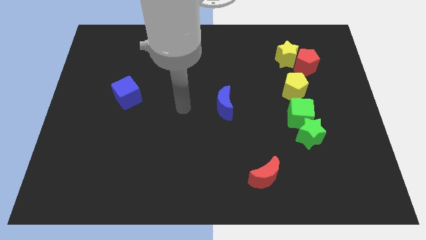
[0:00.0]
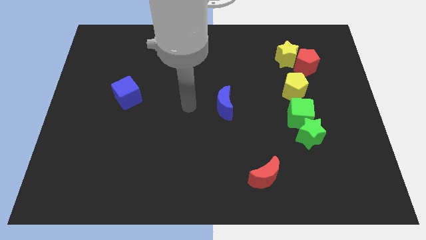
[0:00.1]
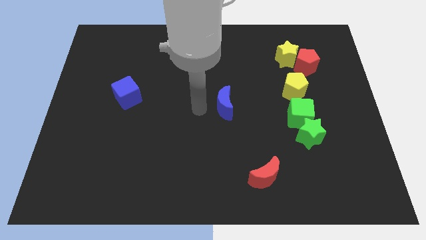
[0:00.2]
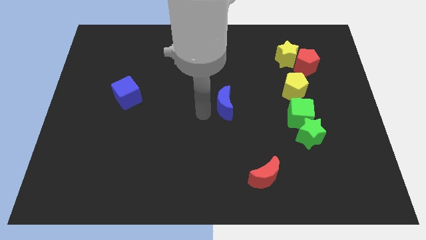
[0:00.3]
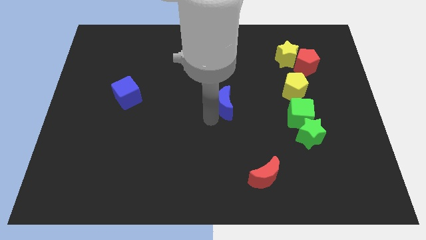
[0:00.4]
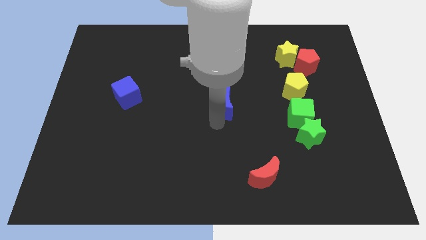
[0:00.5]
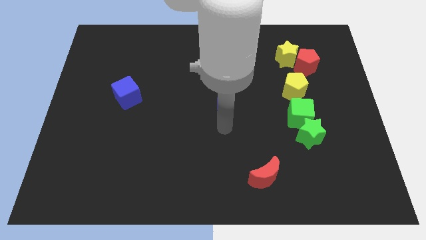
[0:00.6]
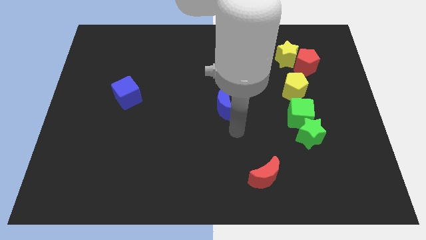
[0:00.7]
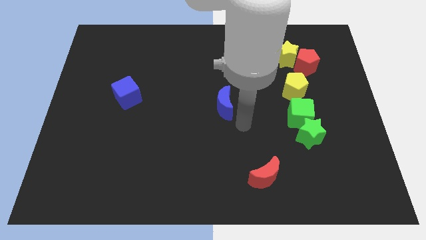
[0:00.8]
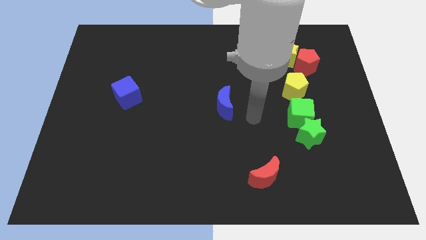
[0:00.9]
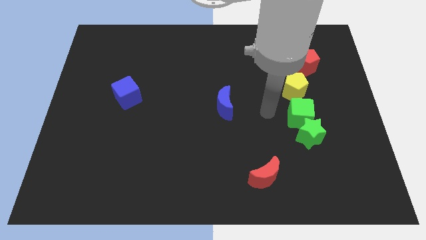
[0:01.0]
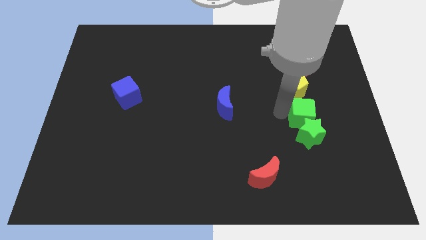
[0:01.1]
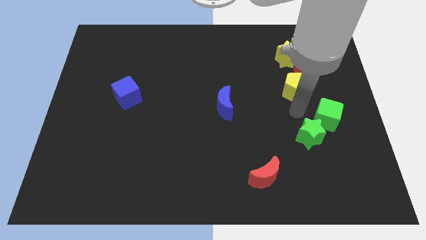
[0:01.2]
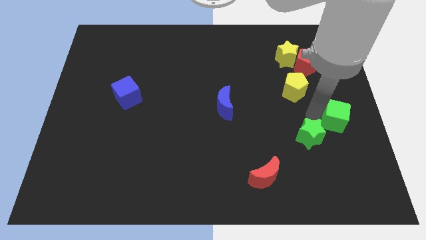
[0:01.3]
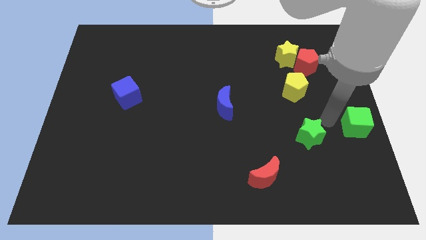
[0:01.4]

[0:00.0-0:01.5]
move the green star away from the green cube

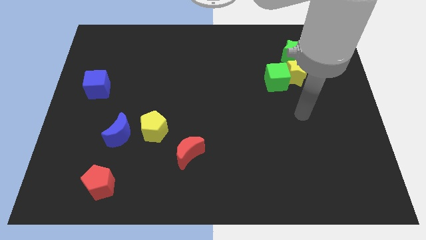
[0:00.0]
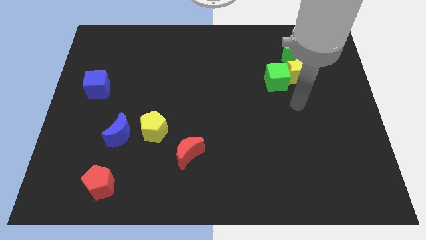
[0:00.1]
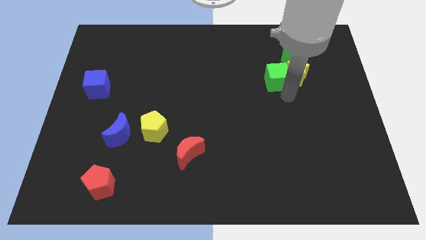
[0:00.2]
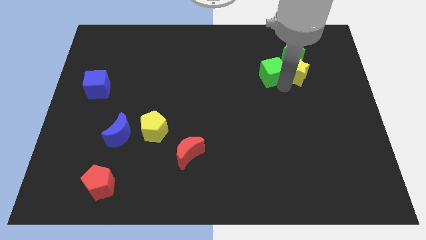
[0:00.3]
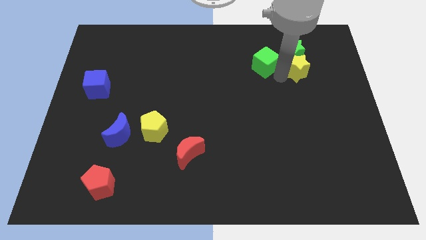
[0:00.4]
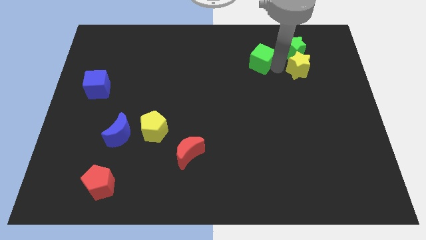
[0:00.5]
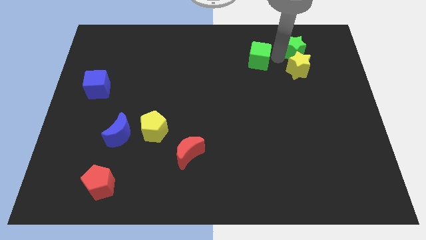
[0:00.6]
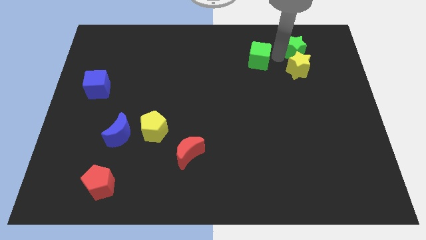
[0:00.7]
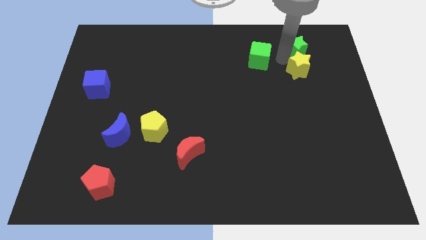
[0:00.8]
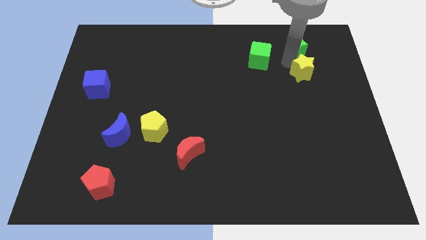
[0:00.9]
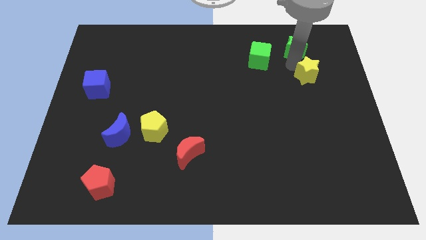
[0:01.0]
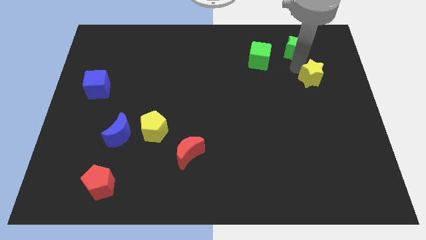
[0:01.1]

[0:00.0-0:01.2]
separate the yellow star from the green cube and green star

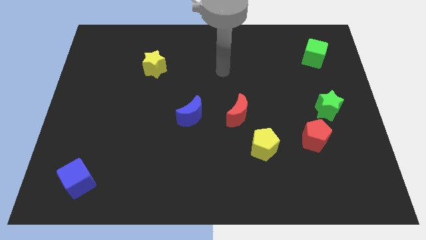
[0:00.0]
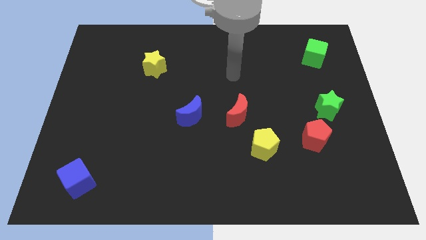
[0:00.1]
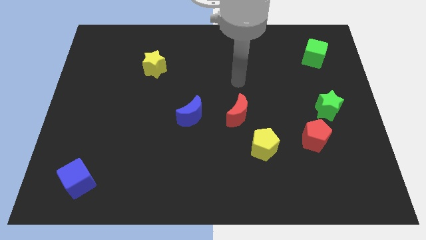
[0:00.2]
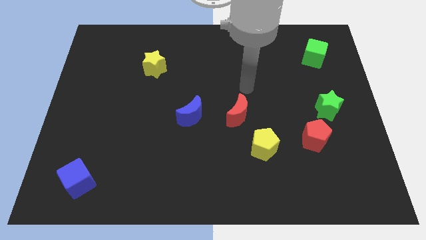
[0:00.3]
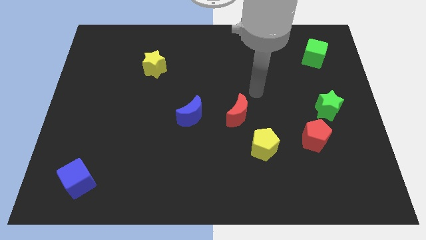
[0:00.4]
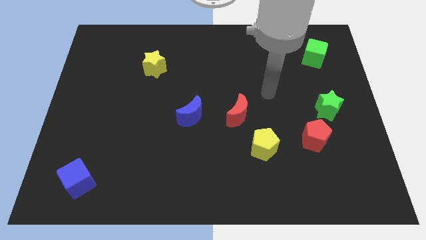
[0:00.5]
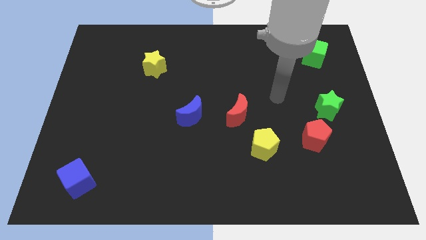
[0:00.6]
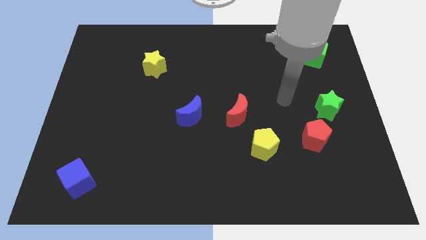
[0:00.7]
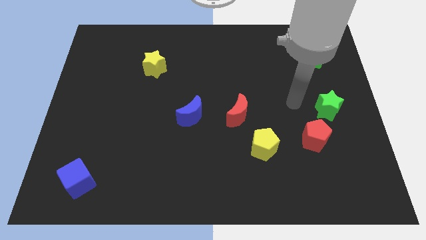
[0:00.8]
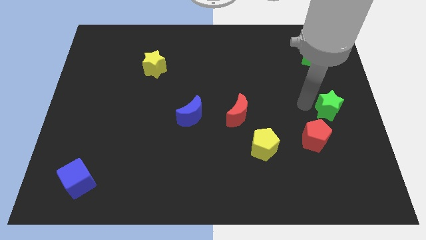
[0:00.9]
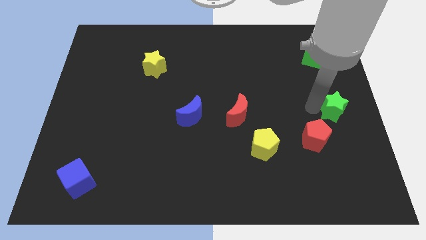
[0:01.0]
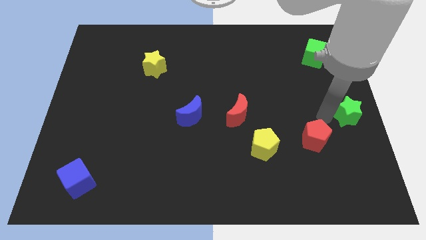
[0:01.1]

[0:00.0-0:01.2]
move the red pentagon away from the green star

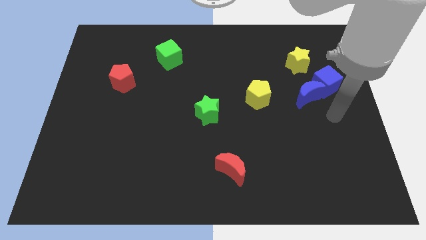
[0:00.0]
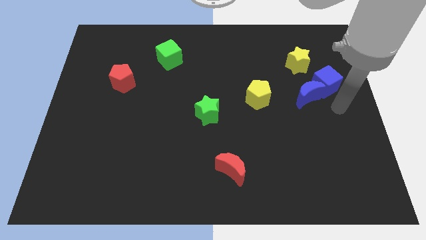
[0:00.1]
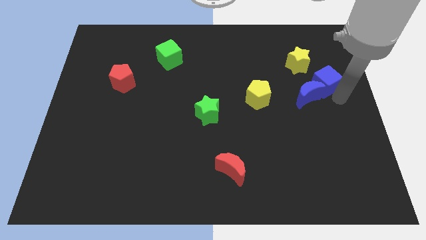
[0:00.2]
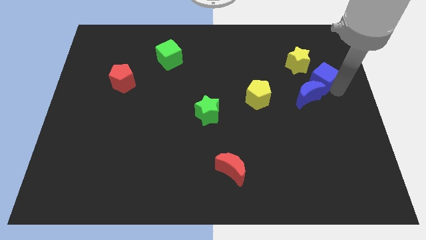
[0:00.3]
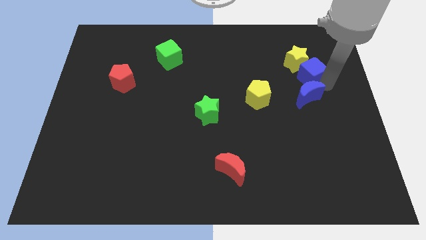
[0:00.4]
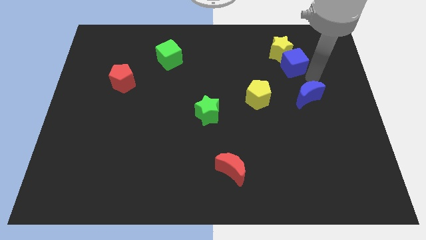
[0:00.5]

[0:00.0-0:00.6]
pull the blue moon apart from the blue cube

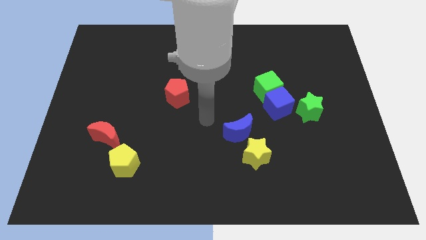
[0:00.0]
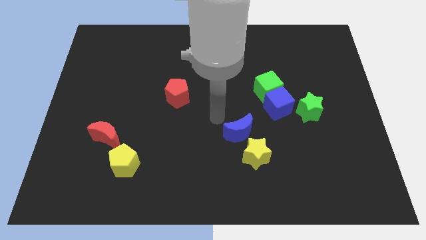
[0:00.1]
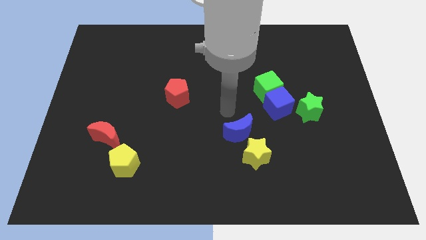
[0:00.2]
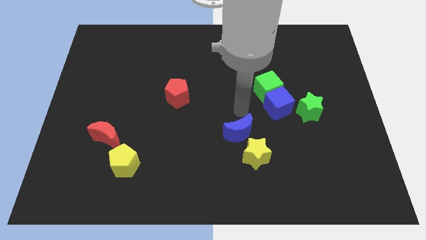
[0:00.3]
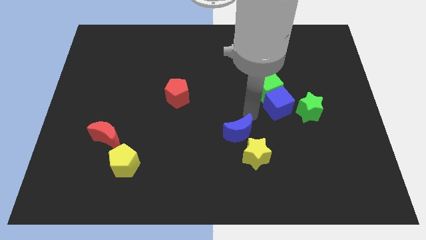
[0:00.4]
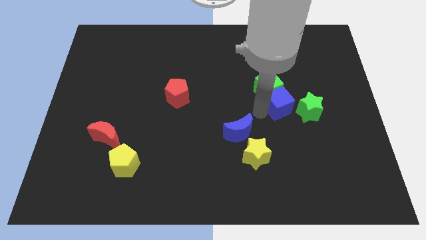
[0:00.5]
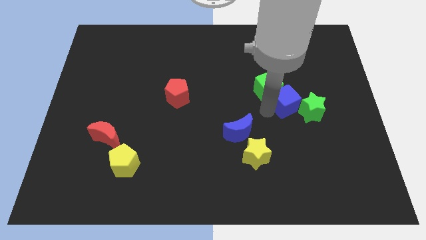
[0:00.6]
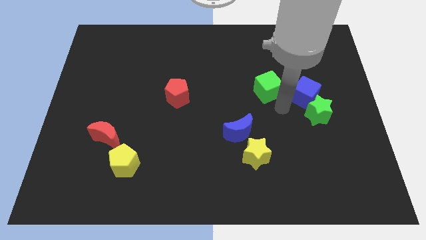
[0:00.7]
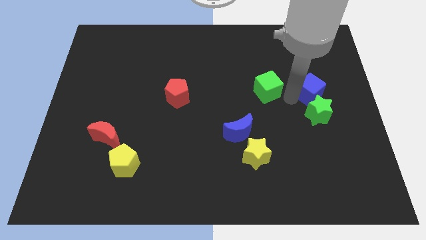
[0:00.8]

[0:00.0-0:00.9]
pull the green cube apart from the blue cube

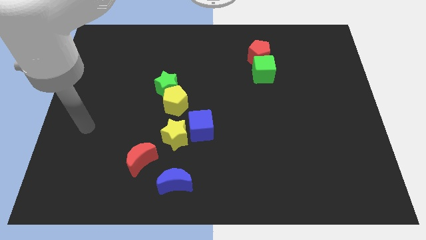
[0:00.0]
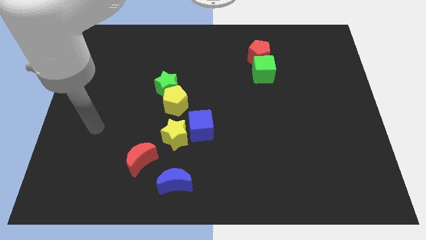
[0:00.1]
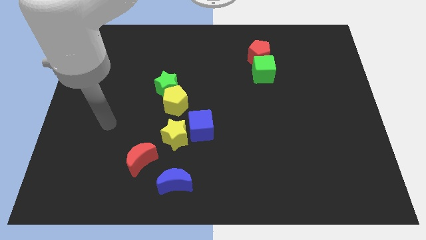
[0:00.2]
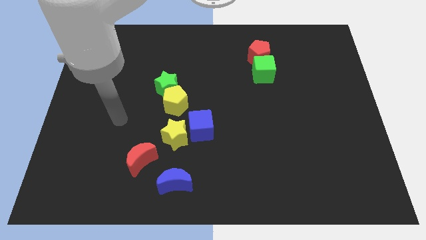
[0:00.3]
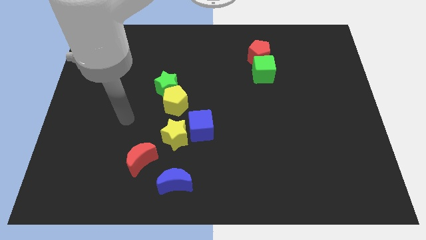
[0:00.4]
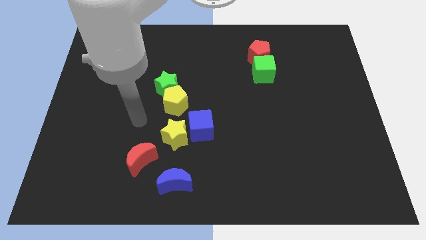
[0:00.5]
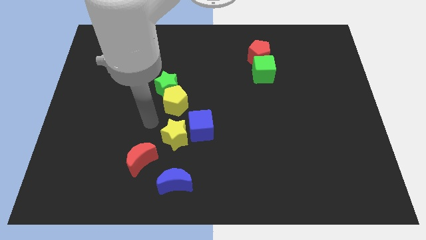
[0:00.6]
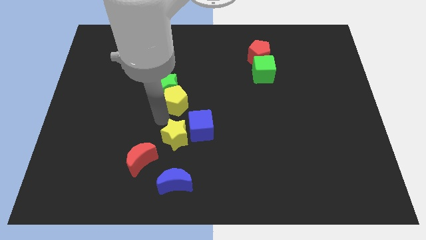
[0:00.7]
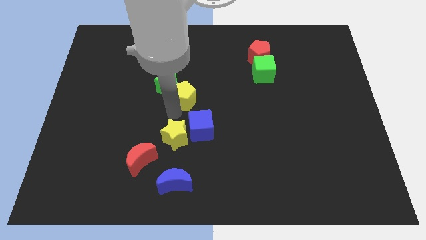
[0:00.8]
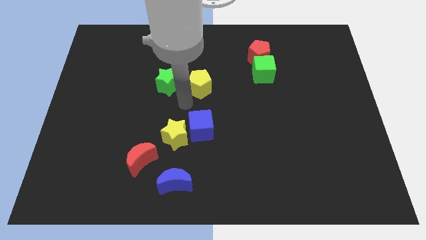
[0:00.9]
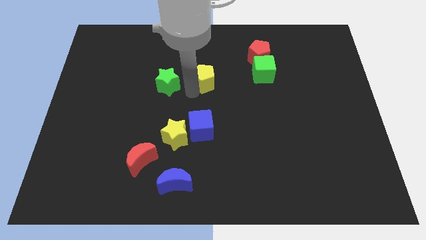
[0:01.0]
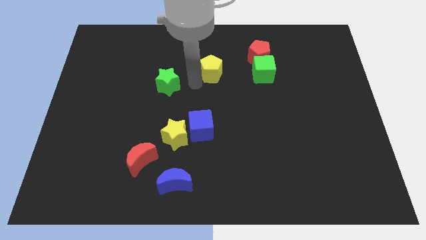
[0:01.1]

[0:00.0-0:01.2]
move the green star away from the yellow pentagon

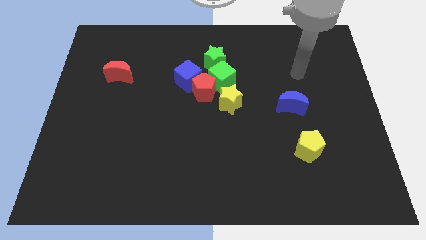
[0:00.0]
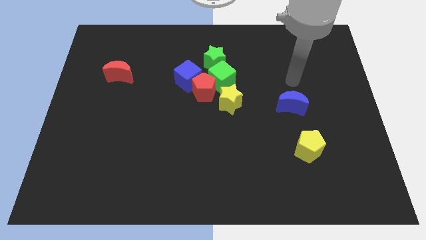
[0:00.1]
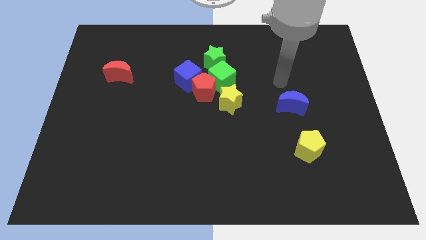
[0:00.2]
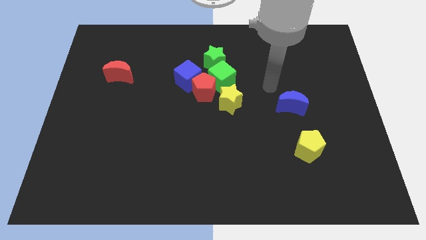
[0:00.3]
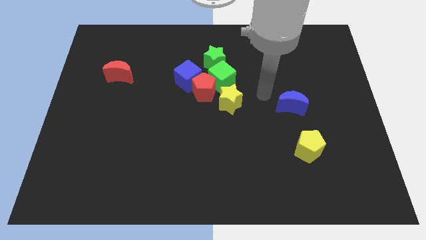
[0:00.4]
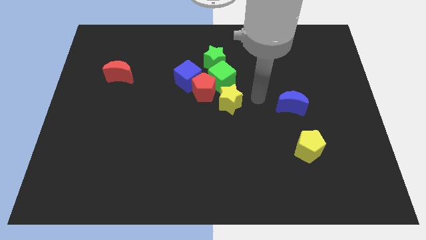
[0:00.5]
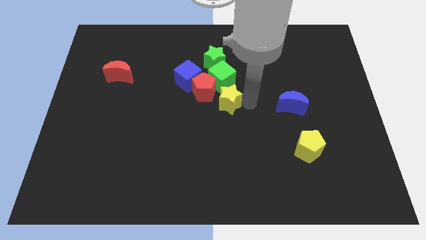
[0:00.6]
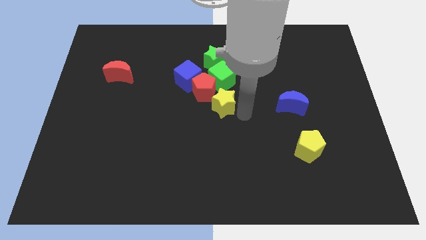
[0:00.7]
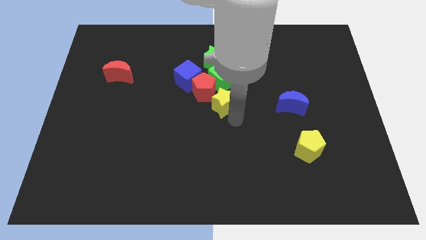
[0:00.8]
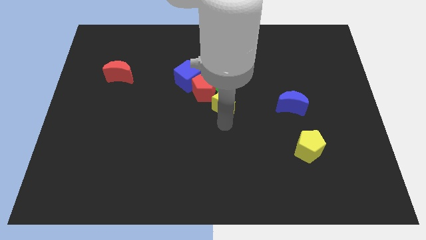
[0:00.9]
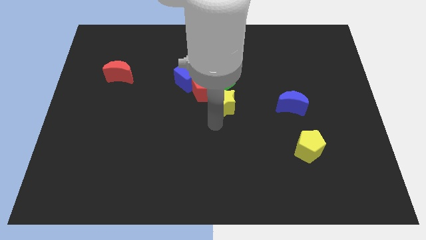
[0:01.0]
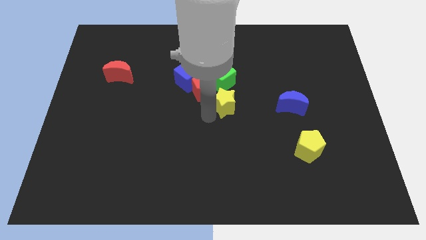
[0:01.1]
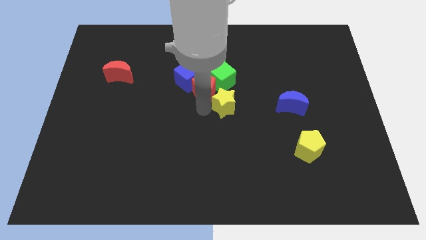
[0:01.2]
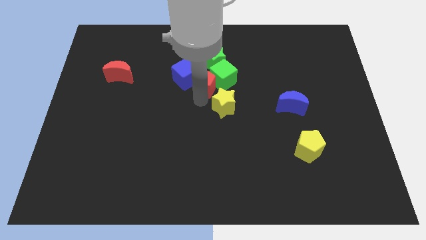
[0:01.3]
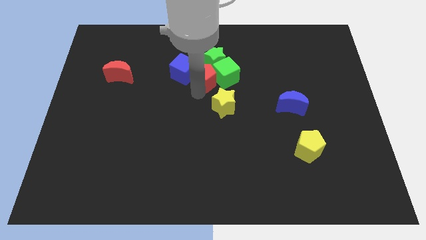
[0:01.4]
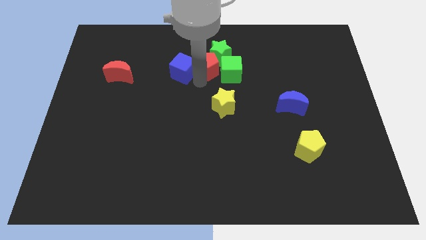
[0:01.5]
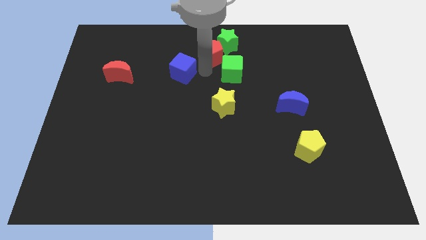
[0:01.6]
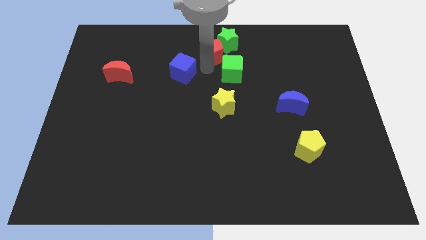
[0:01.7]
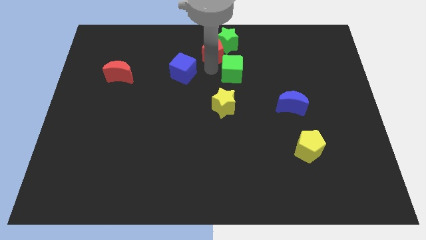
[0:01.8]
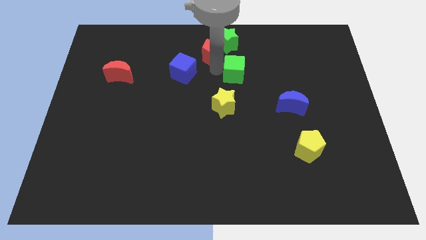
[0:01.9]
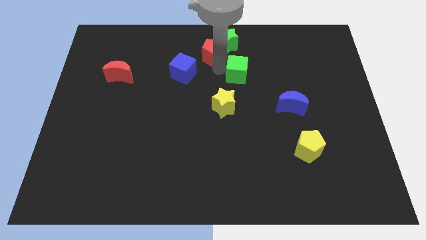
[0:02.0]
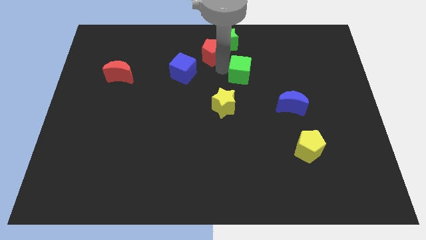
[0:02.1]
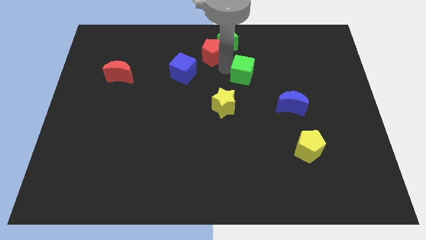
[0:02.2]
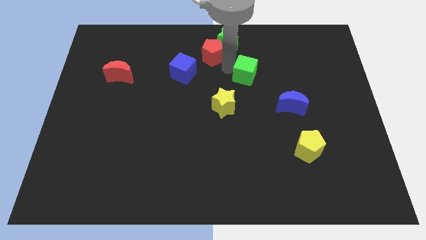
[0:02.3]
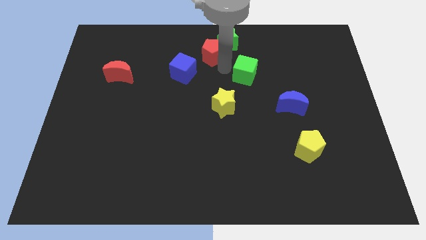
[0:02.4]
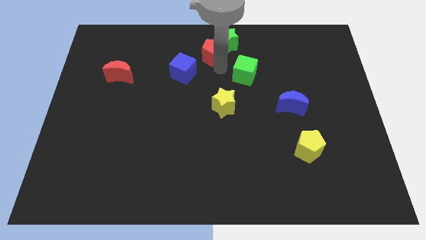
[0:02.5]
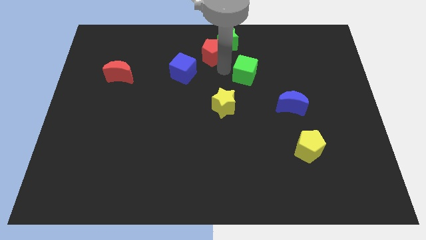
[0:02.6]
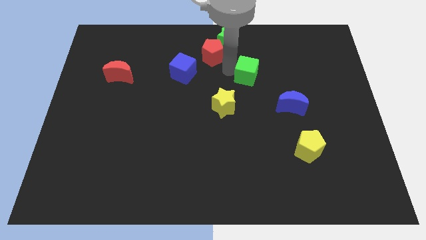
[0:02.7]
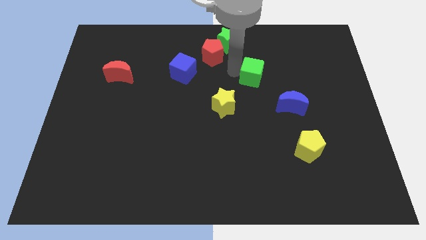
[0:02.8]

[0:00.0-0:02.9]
separate the green cube from the clump

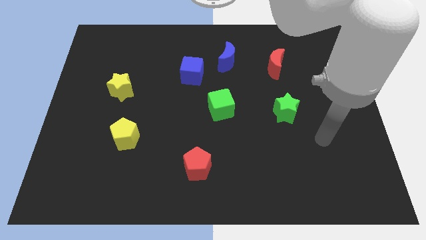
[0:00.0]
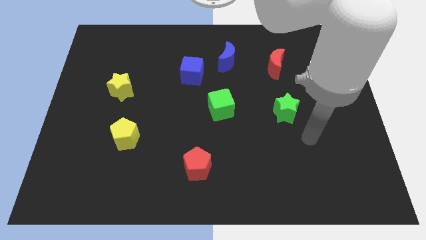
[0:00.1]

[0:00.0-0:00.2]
separate the blue moon from the blue cube
